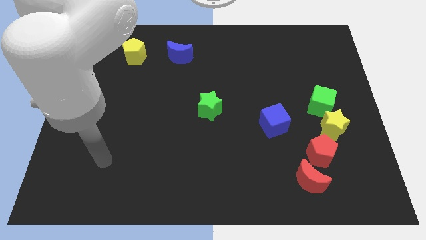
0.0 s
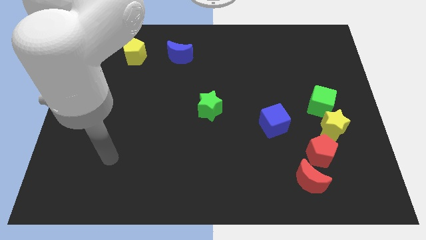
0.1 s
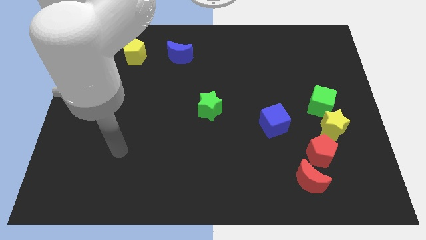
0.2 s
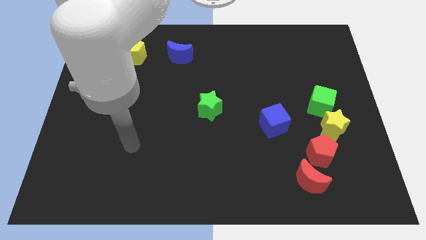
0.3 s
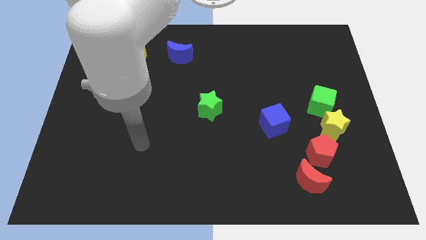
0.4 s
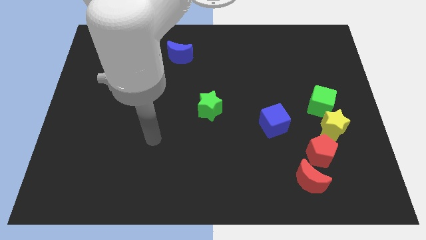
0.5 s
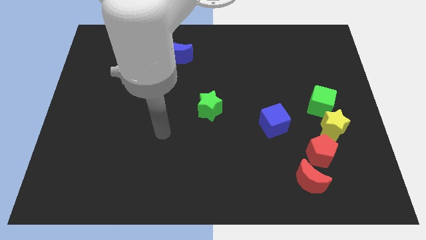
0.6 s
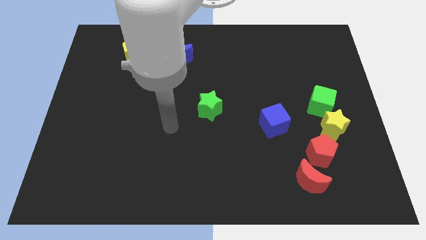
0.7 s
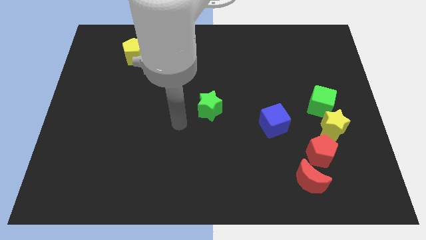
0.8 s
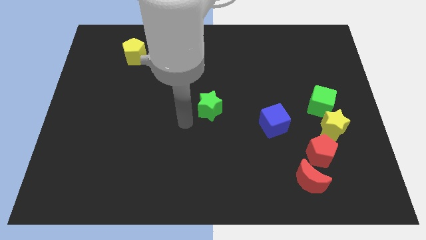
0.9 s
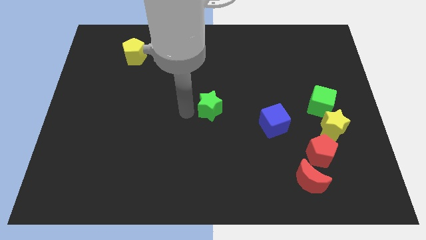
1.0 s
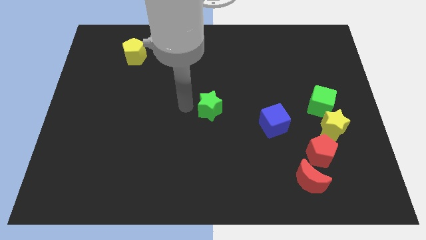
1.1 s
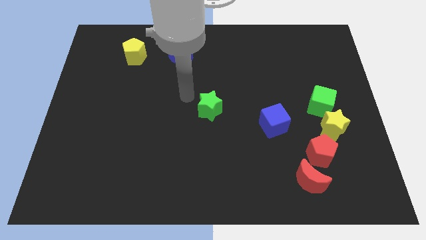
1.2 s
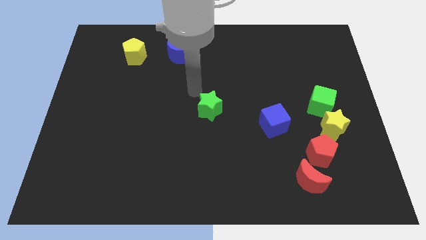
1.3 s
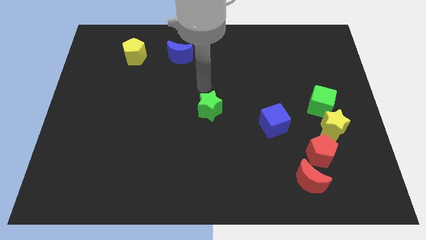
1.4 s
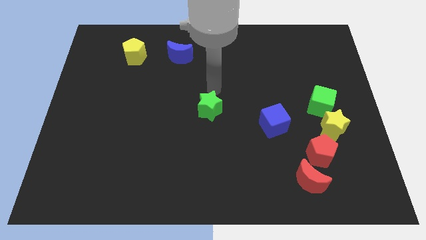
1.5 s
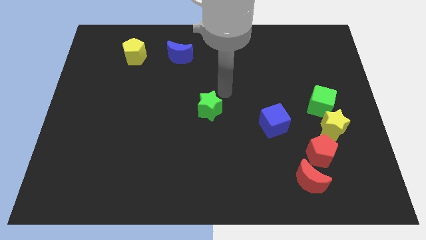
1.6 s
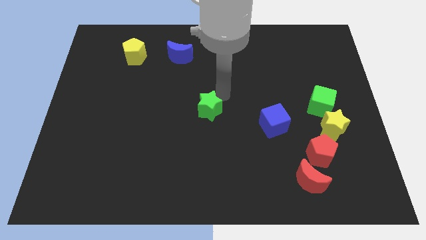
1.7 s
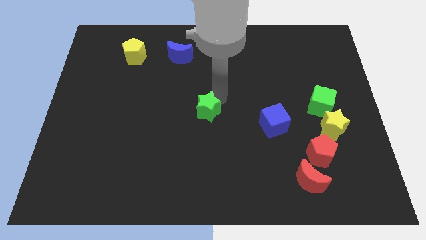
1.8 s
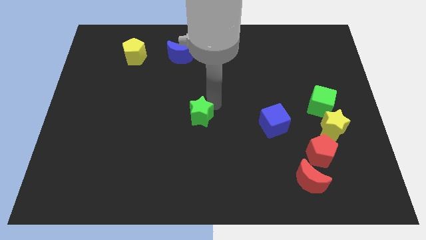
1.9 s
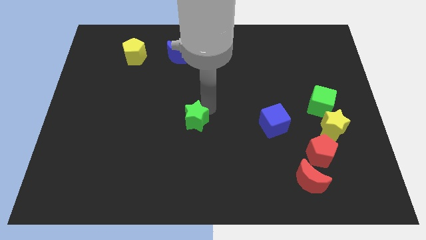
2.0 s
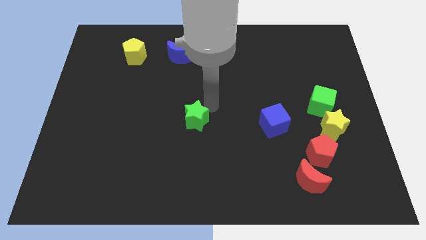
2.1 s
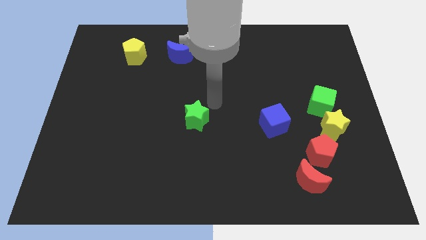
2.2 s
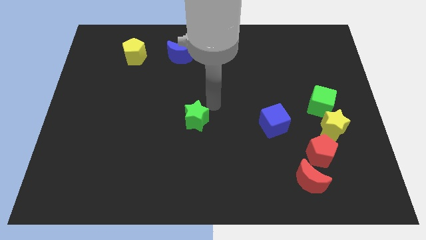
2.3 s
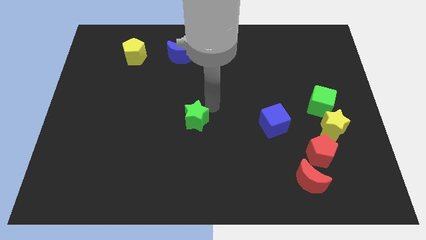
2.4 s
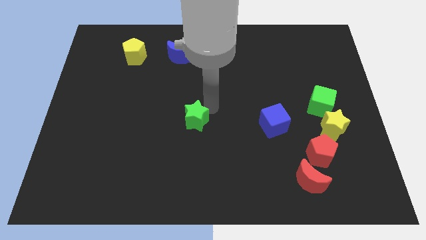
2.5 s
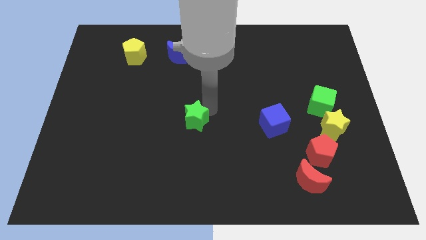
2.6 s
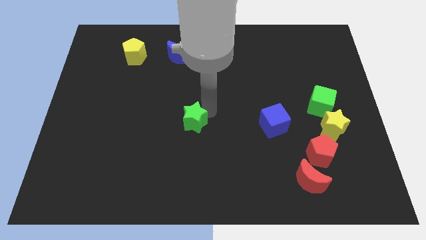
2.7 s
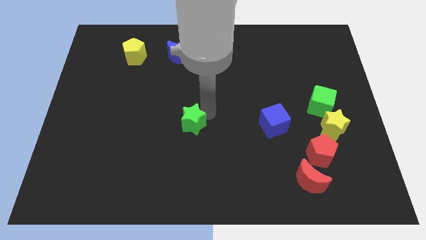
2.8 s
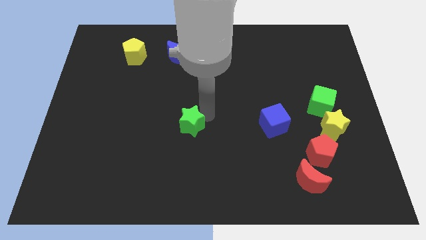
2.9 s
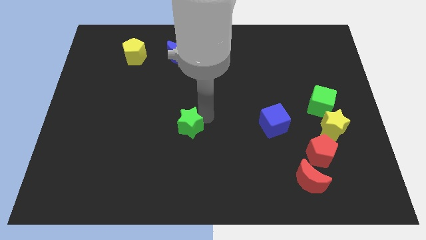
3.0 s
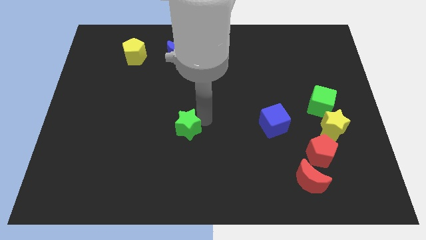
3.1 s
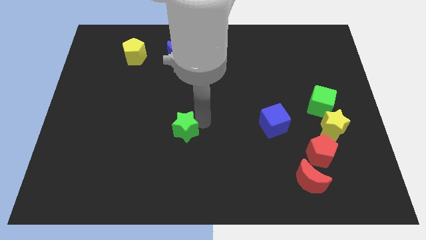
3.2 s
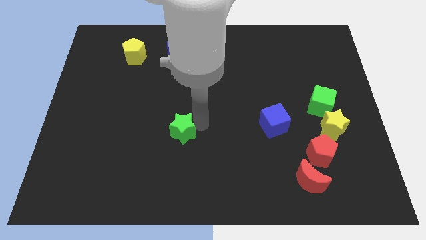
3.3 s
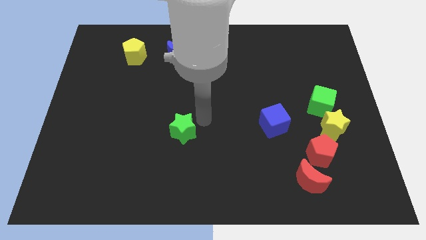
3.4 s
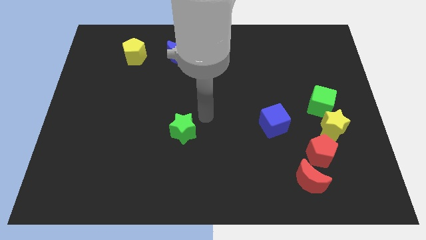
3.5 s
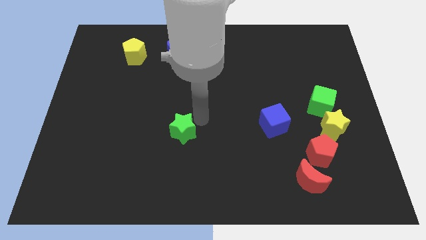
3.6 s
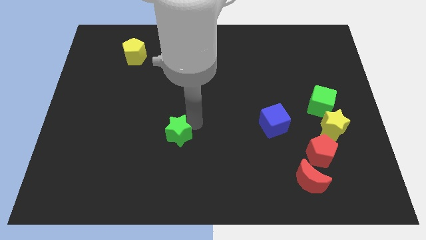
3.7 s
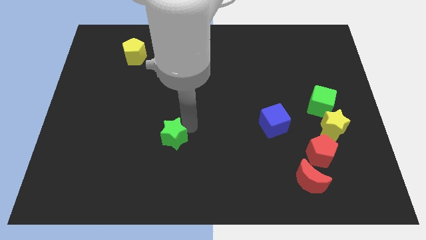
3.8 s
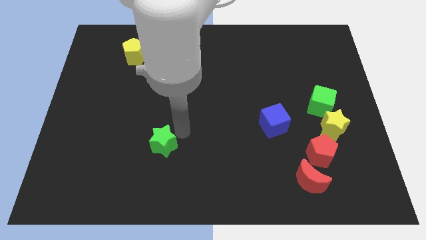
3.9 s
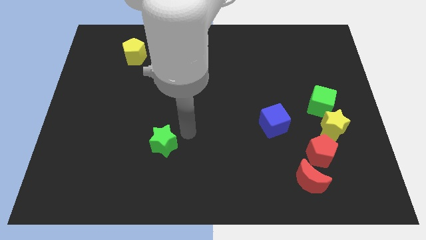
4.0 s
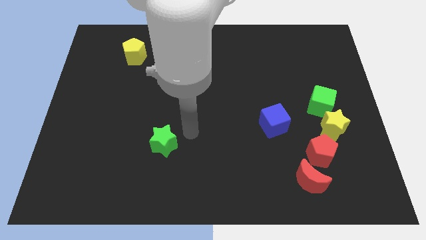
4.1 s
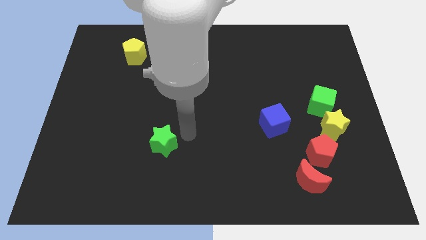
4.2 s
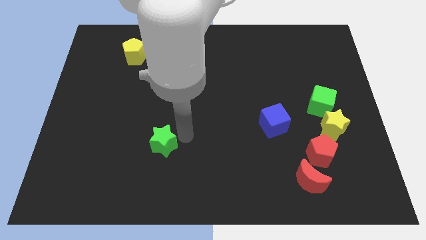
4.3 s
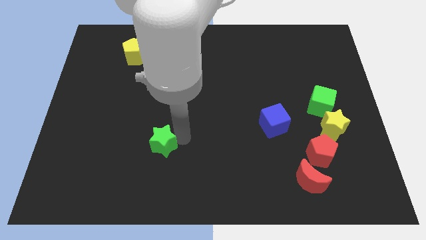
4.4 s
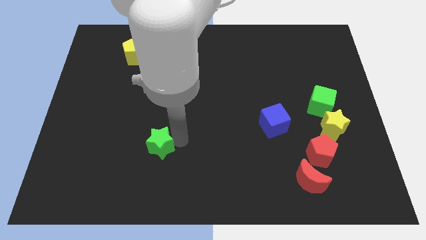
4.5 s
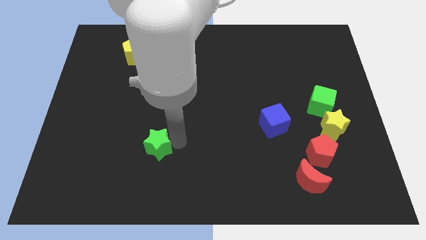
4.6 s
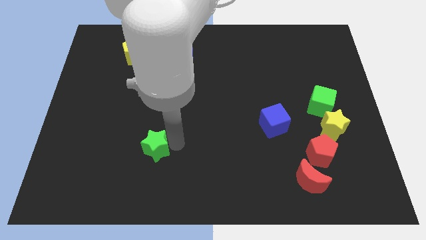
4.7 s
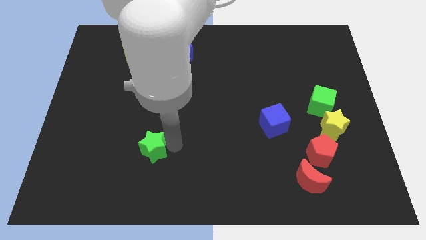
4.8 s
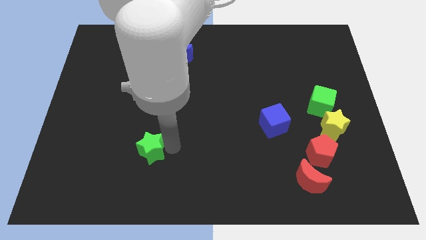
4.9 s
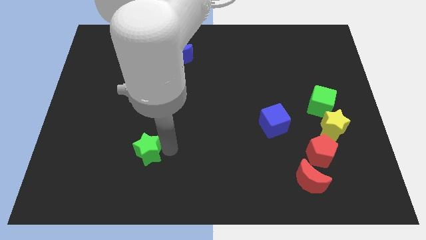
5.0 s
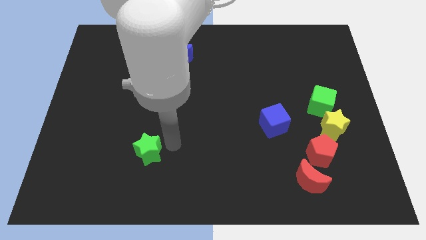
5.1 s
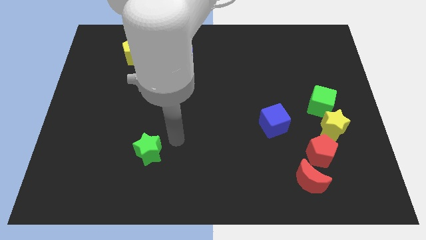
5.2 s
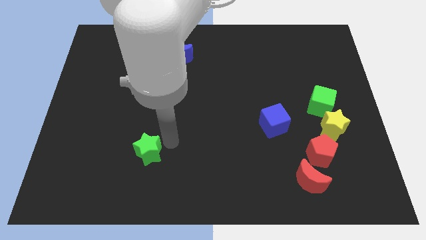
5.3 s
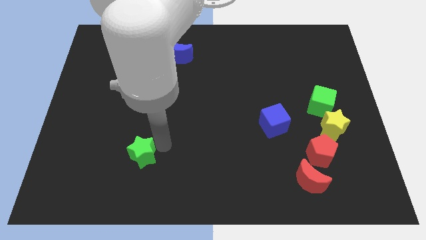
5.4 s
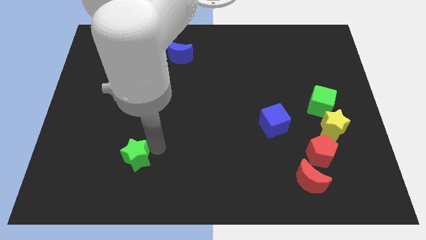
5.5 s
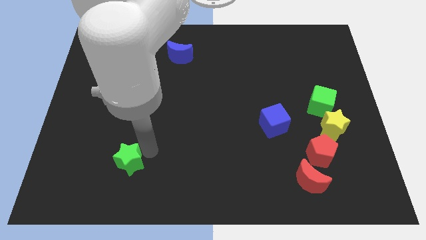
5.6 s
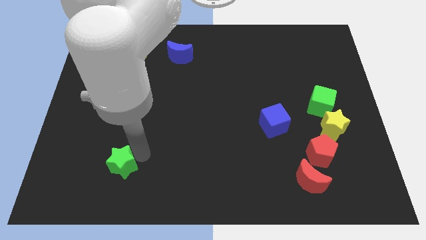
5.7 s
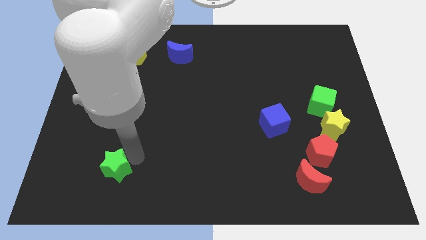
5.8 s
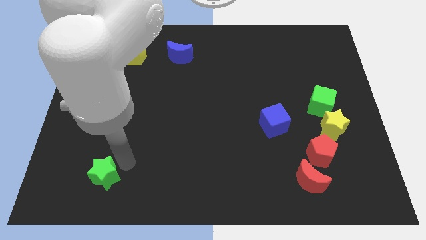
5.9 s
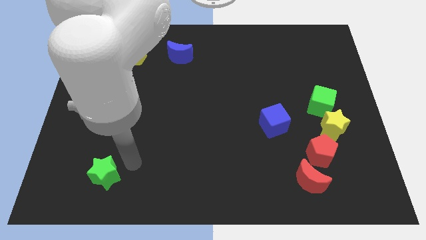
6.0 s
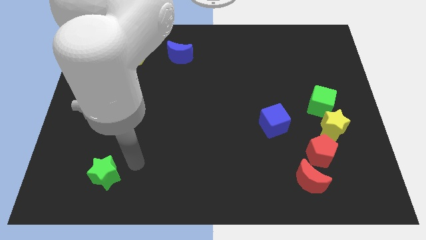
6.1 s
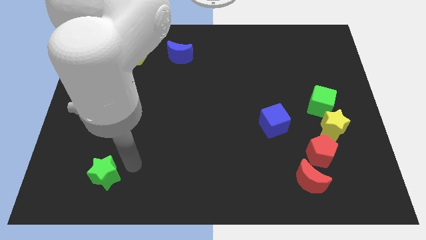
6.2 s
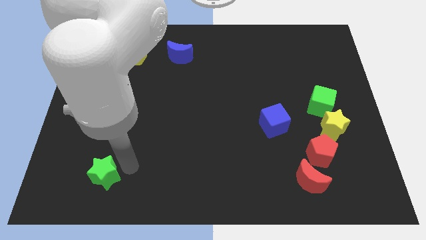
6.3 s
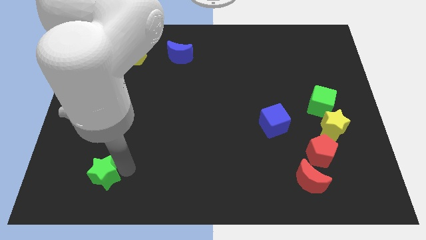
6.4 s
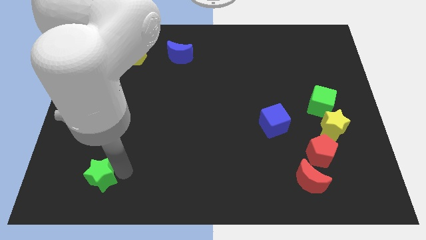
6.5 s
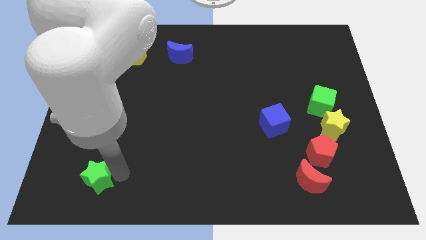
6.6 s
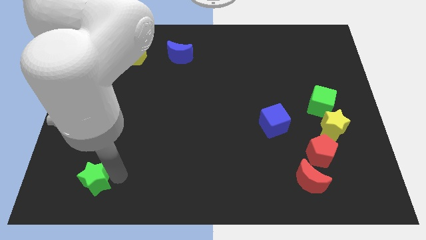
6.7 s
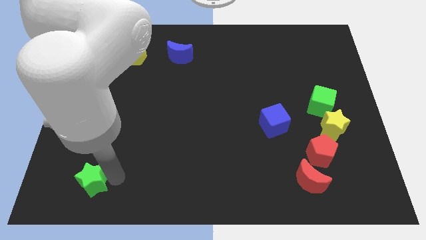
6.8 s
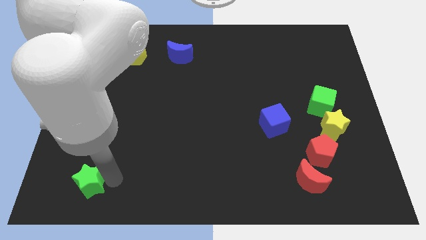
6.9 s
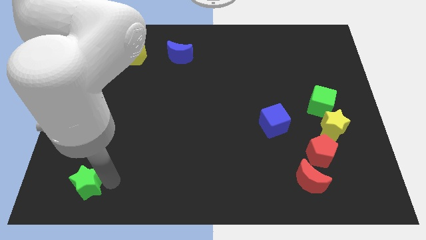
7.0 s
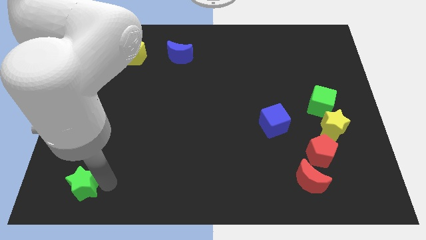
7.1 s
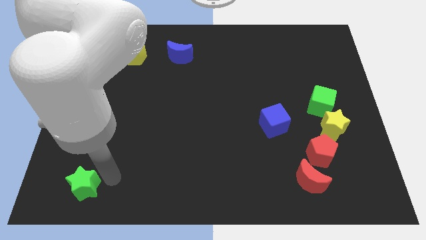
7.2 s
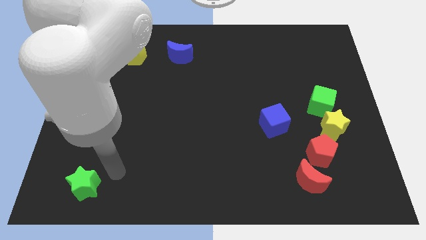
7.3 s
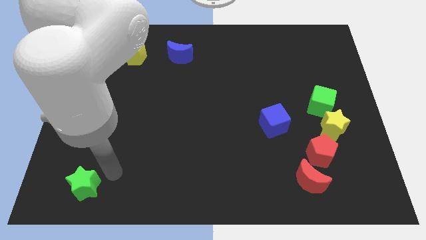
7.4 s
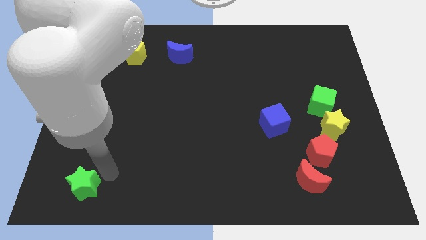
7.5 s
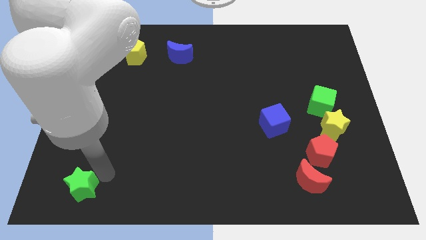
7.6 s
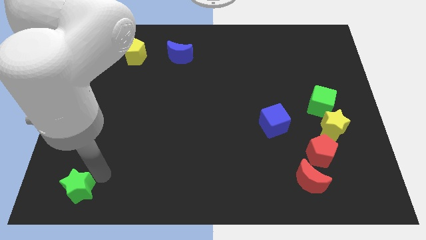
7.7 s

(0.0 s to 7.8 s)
push the green star to the lower left corner
